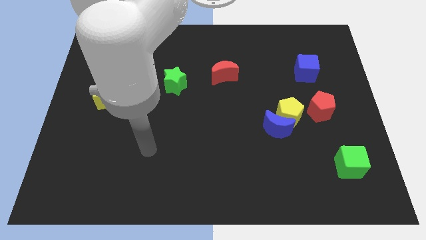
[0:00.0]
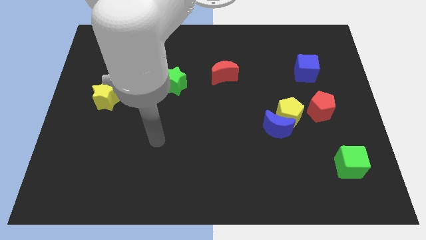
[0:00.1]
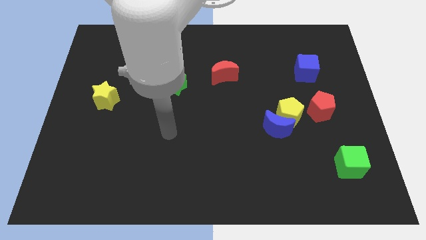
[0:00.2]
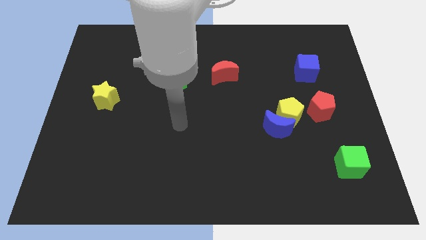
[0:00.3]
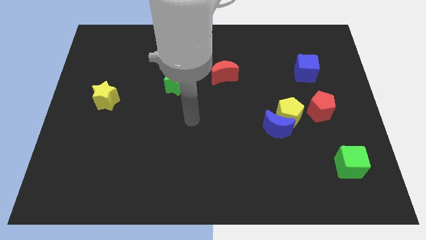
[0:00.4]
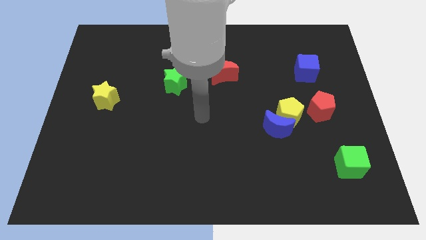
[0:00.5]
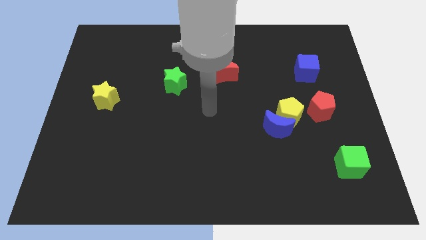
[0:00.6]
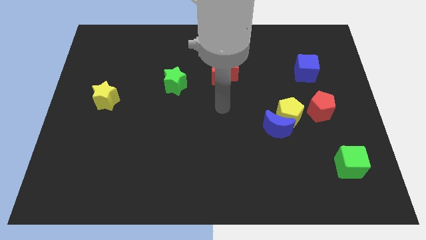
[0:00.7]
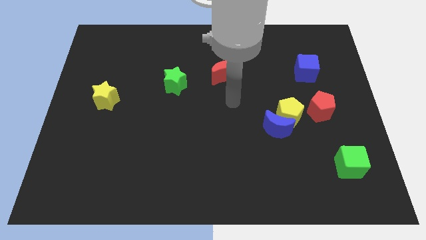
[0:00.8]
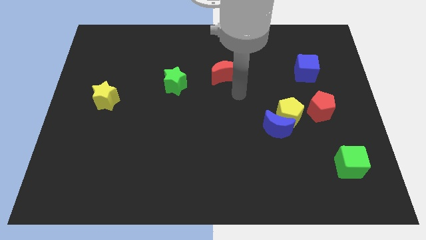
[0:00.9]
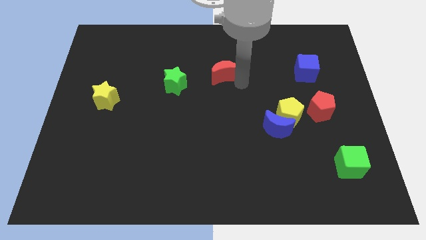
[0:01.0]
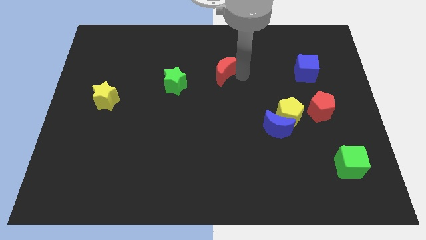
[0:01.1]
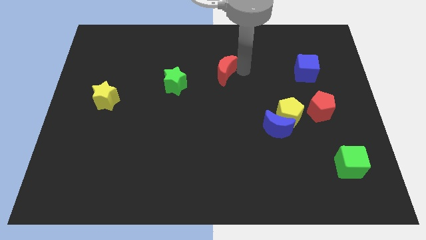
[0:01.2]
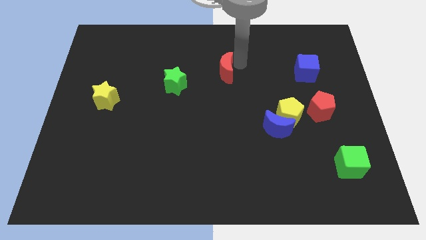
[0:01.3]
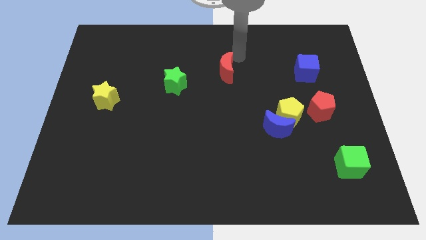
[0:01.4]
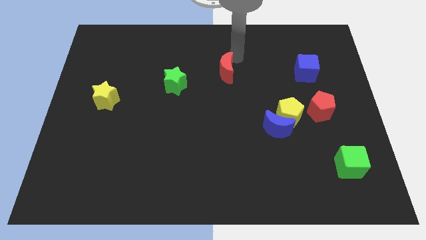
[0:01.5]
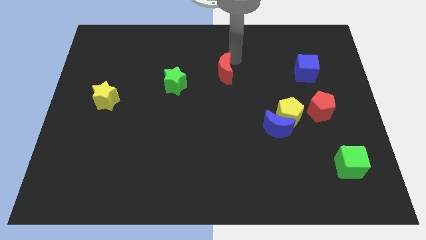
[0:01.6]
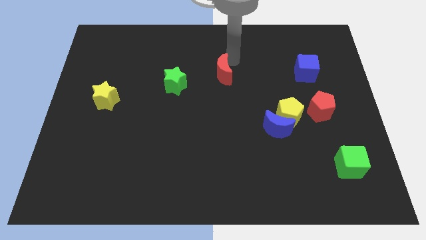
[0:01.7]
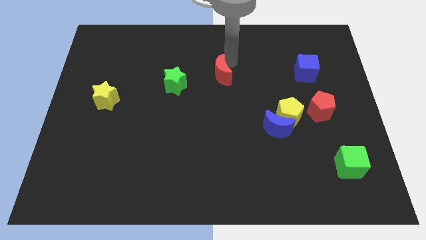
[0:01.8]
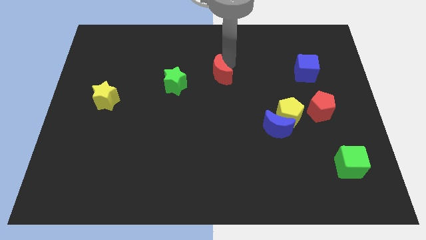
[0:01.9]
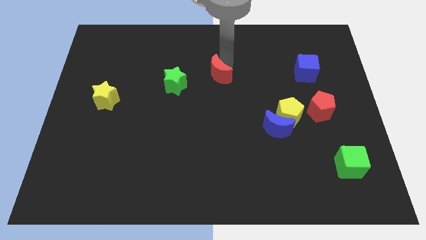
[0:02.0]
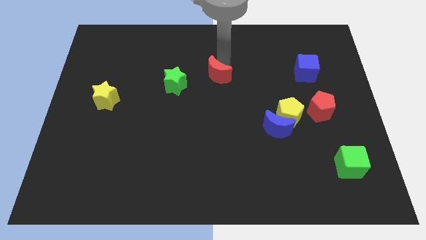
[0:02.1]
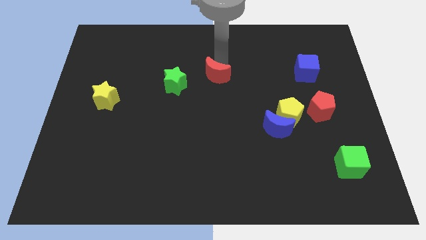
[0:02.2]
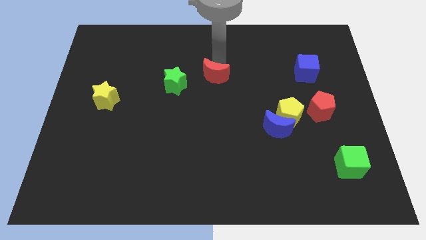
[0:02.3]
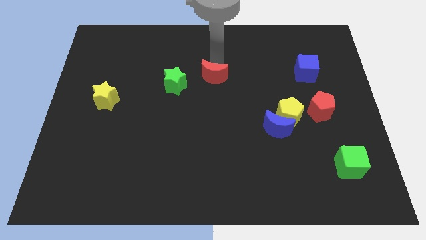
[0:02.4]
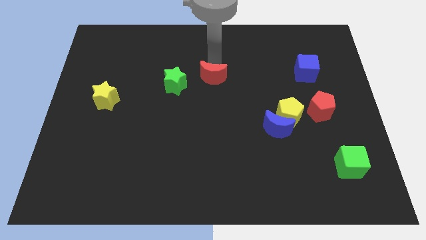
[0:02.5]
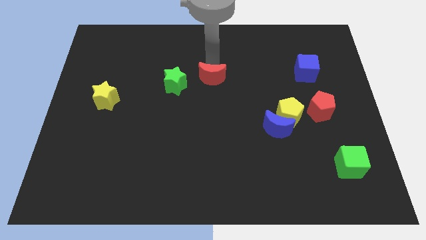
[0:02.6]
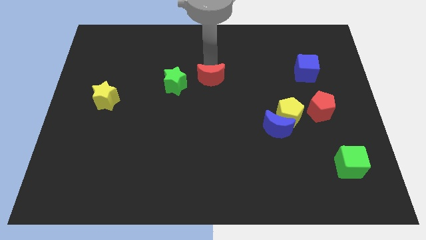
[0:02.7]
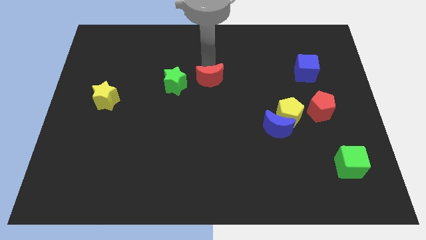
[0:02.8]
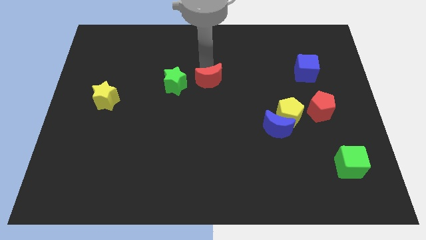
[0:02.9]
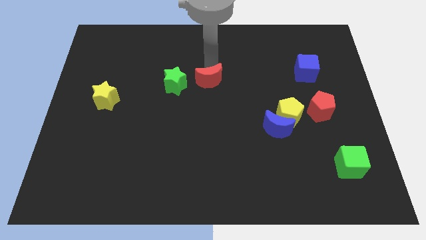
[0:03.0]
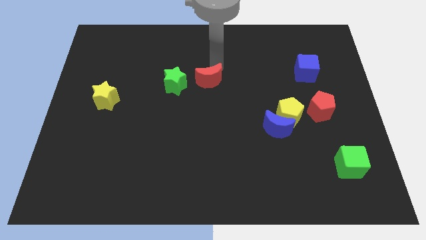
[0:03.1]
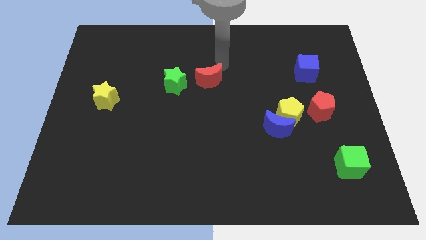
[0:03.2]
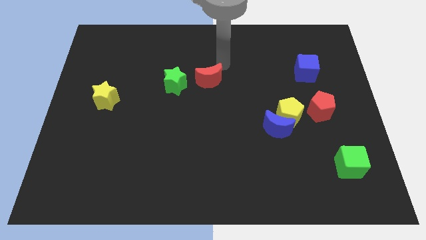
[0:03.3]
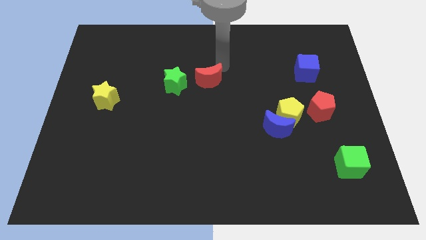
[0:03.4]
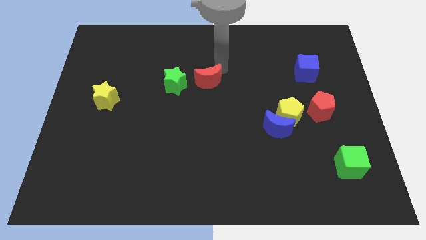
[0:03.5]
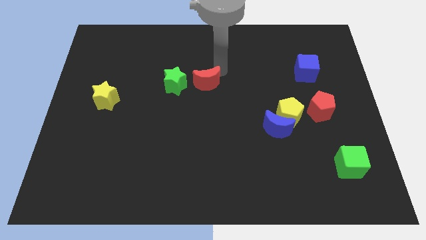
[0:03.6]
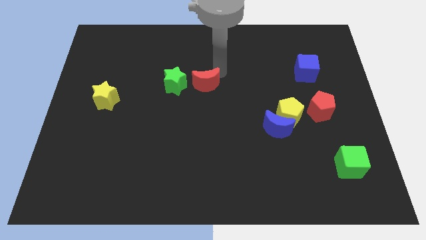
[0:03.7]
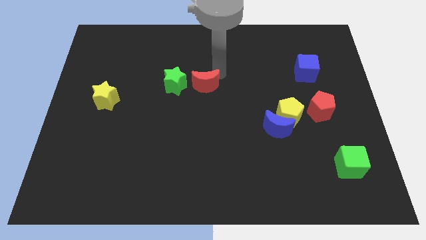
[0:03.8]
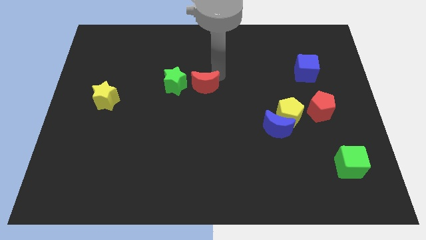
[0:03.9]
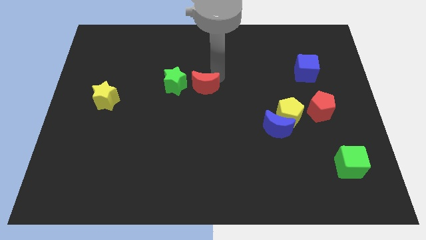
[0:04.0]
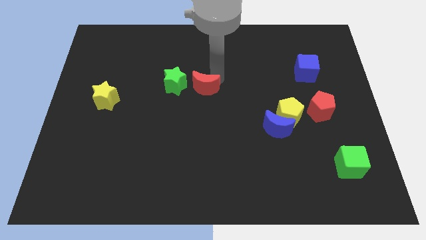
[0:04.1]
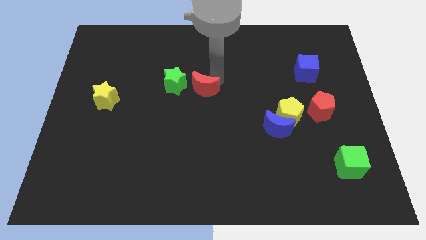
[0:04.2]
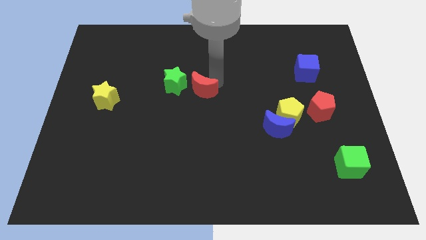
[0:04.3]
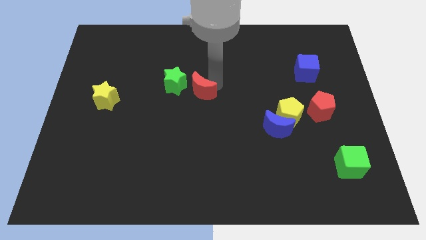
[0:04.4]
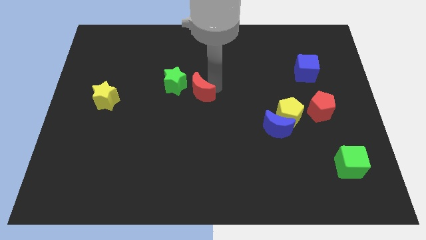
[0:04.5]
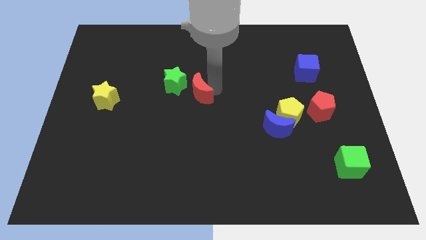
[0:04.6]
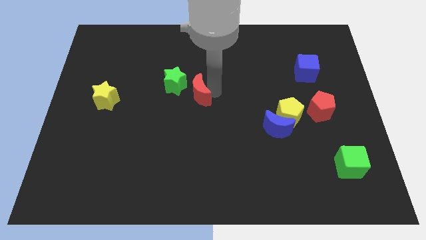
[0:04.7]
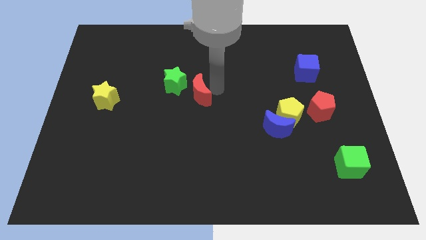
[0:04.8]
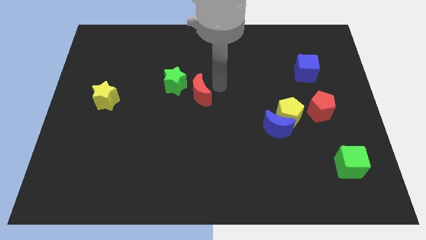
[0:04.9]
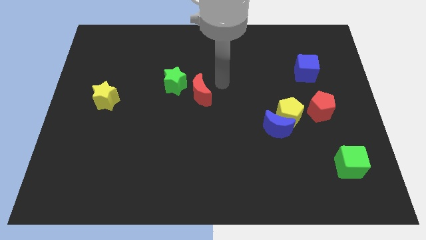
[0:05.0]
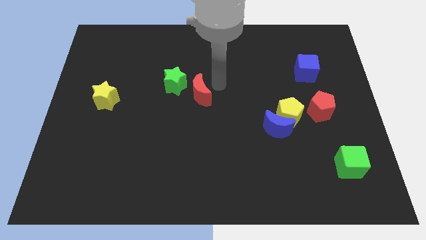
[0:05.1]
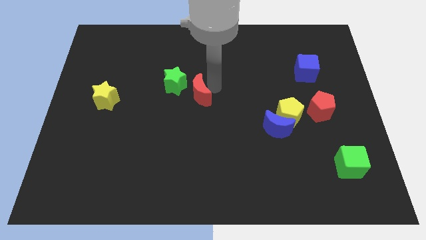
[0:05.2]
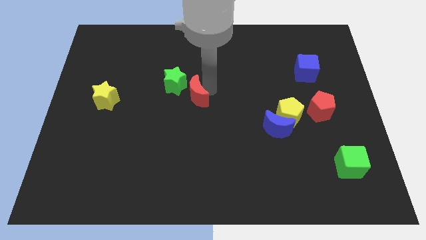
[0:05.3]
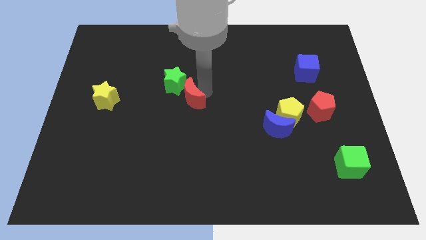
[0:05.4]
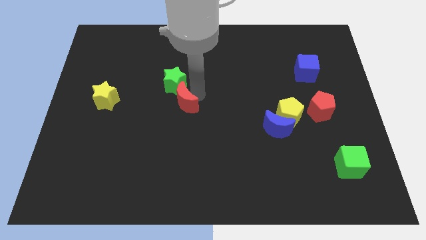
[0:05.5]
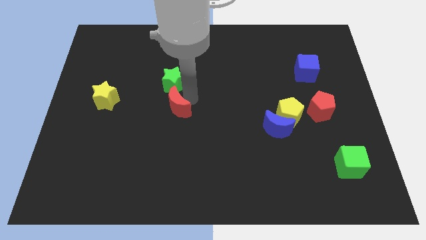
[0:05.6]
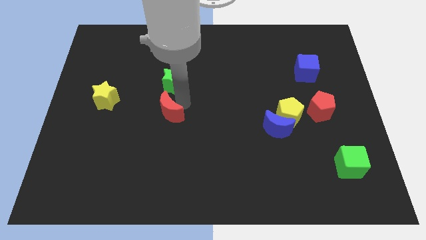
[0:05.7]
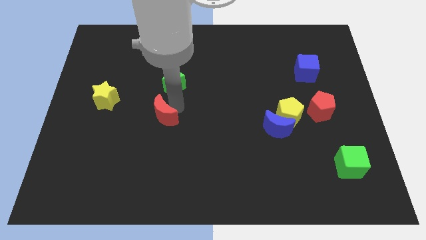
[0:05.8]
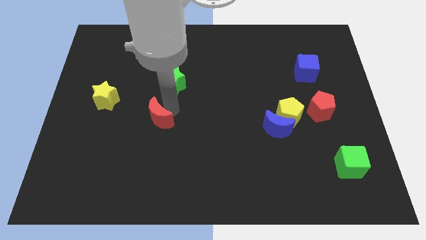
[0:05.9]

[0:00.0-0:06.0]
slide the red moon down and to the left

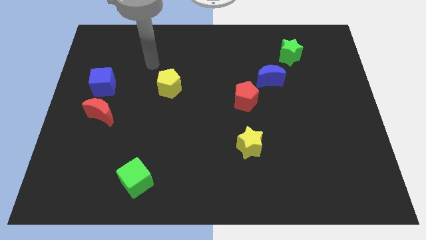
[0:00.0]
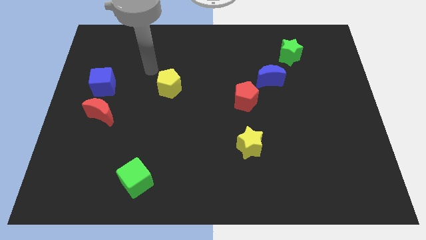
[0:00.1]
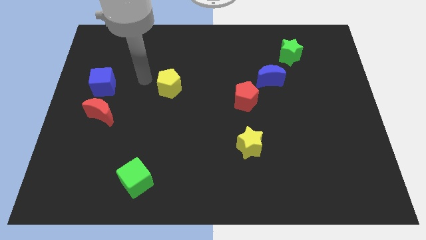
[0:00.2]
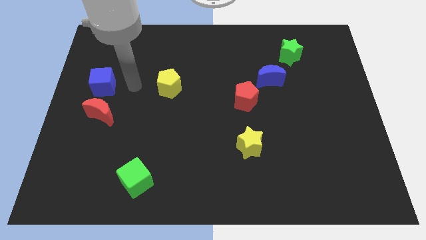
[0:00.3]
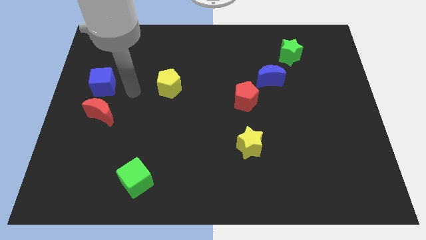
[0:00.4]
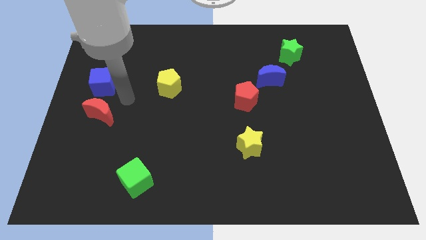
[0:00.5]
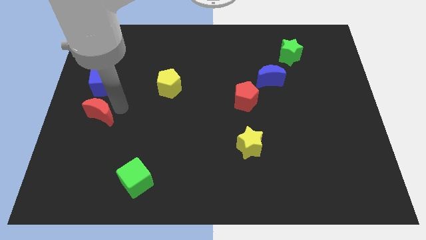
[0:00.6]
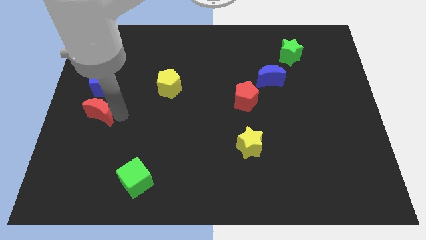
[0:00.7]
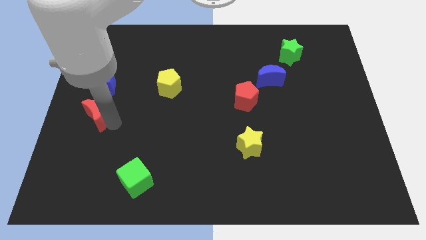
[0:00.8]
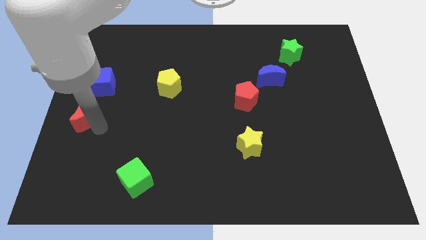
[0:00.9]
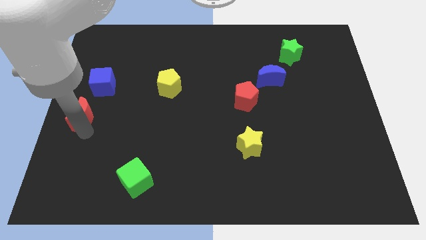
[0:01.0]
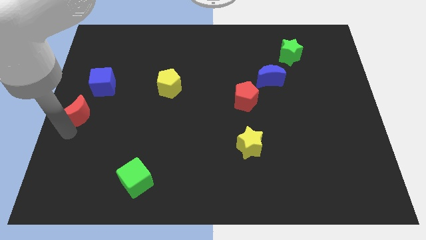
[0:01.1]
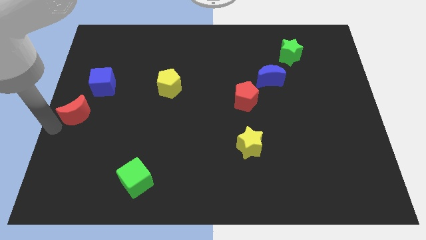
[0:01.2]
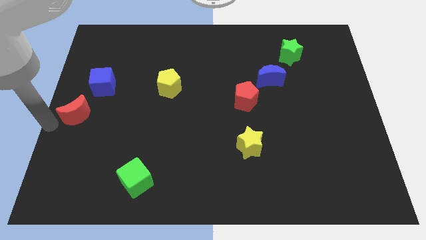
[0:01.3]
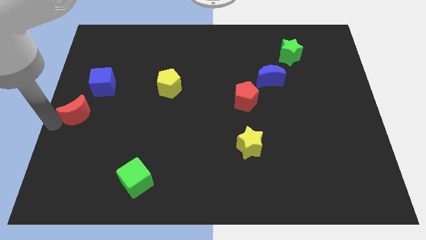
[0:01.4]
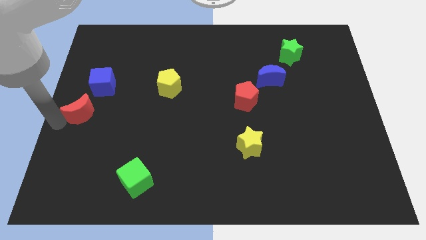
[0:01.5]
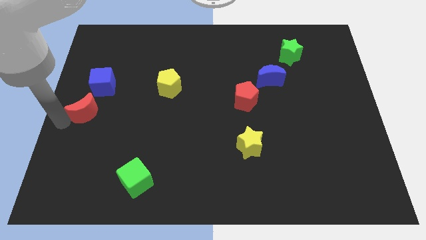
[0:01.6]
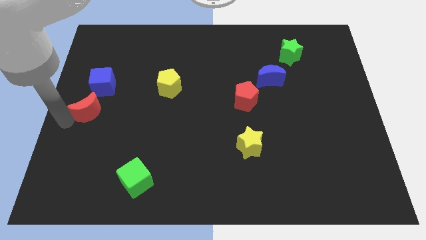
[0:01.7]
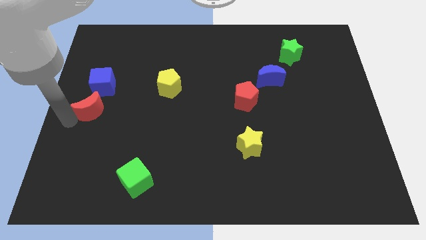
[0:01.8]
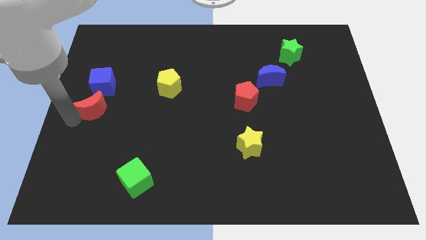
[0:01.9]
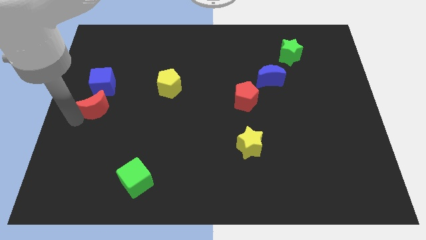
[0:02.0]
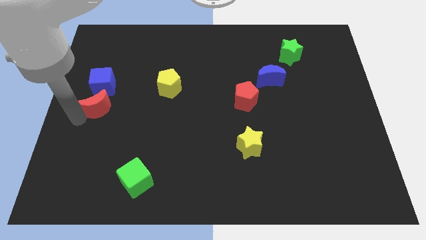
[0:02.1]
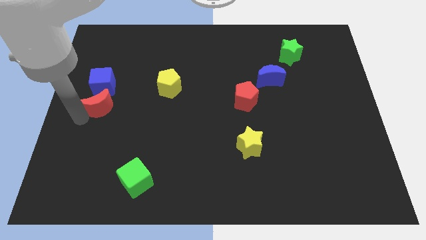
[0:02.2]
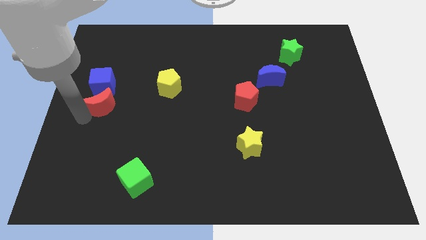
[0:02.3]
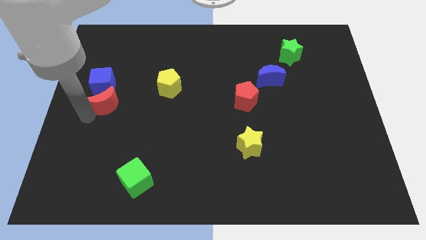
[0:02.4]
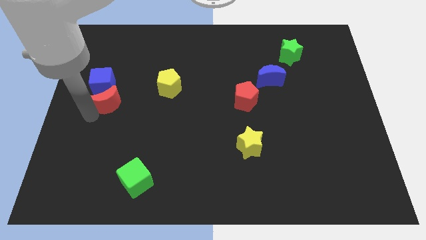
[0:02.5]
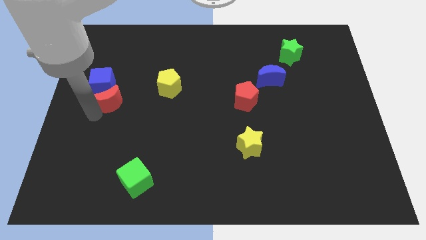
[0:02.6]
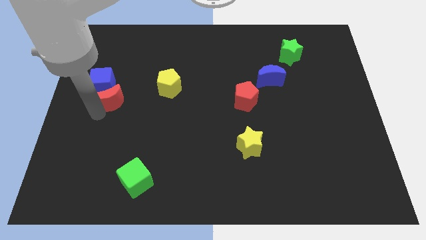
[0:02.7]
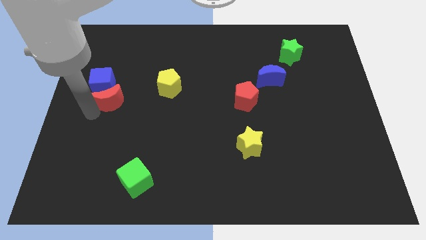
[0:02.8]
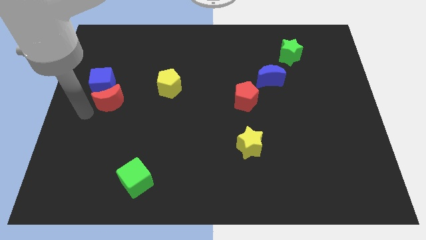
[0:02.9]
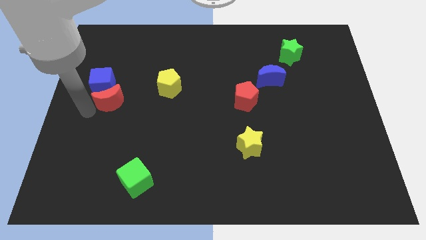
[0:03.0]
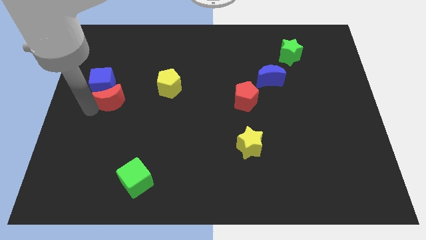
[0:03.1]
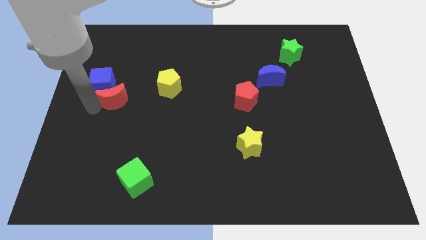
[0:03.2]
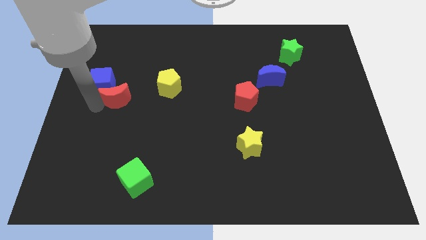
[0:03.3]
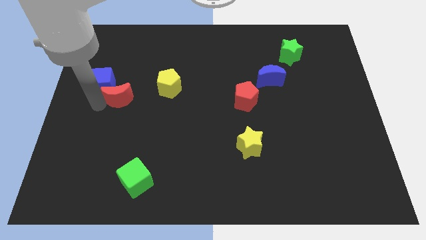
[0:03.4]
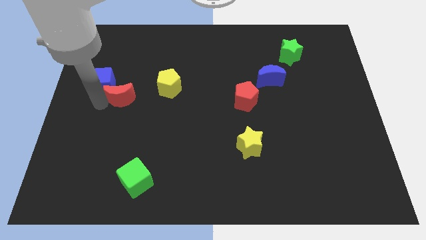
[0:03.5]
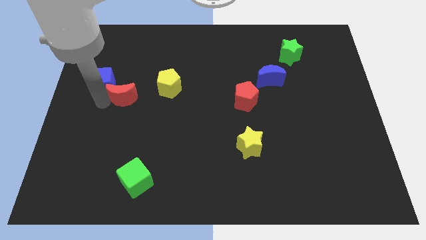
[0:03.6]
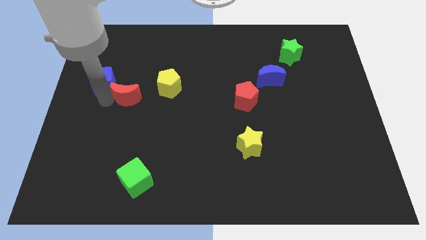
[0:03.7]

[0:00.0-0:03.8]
push the red moon a little upwards and then to the right
